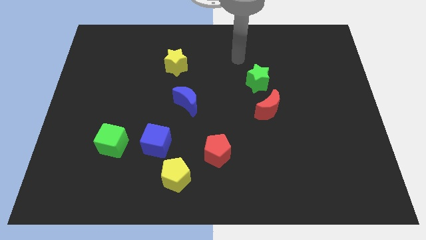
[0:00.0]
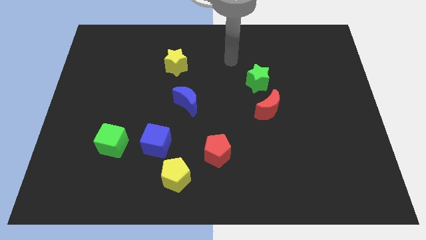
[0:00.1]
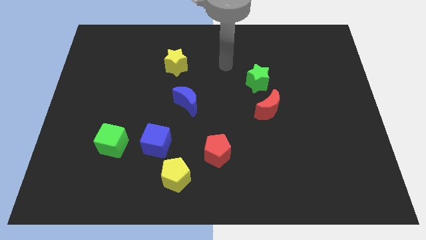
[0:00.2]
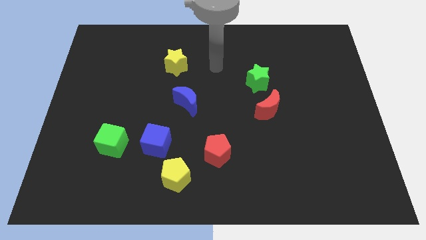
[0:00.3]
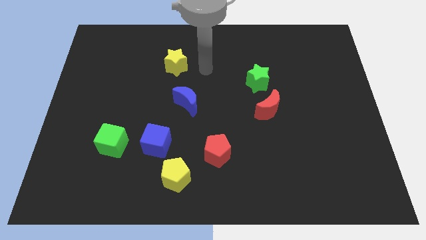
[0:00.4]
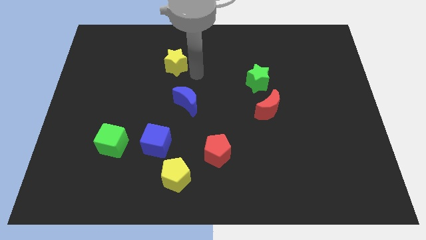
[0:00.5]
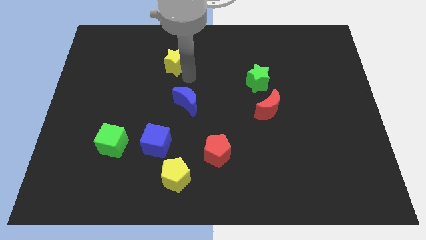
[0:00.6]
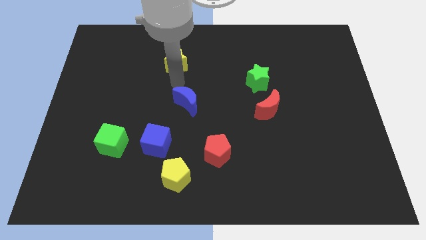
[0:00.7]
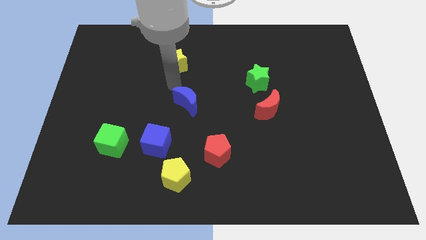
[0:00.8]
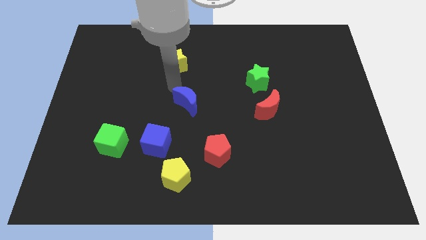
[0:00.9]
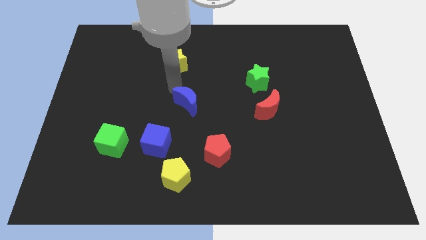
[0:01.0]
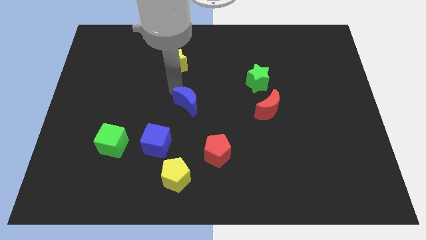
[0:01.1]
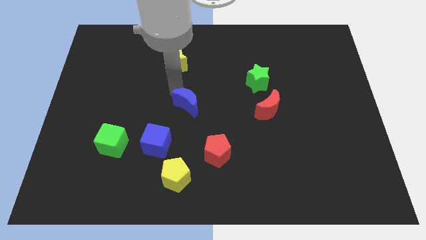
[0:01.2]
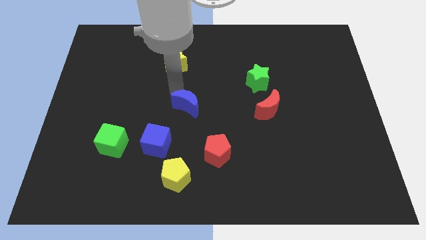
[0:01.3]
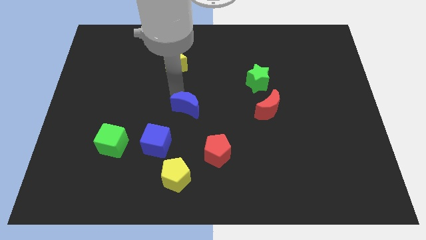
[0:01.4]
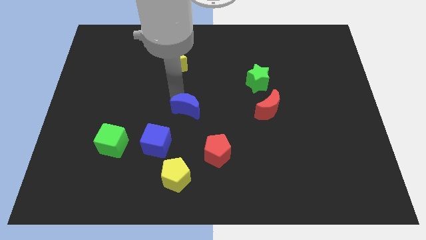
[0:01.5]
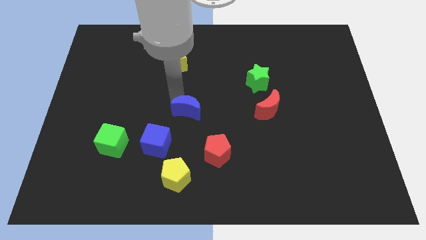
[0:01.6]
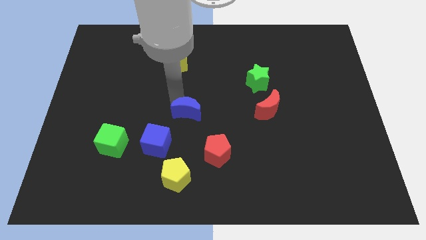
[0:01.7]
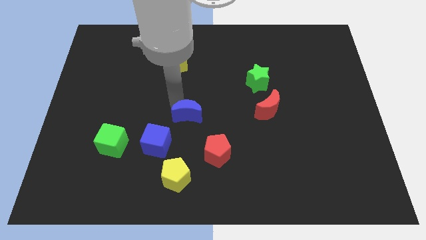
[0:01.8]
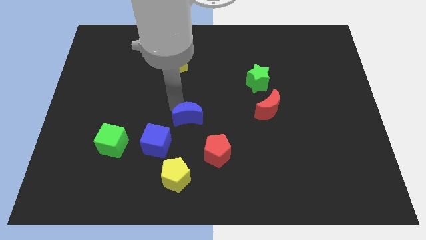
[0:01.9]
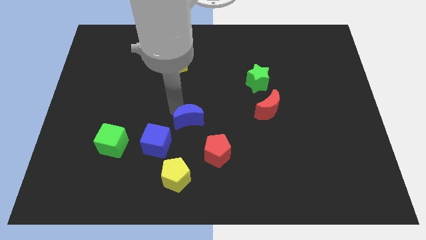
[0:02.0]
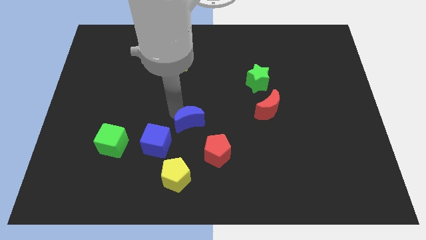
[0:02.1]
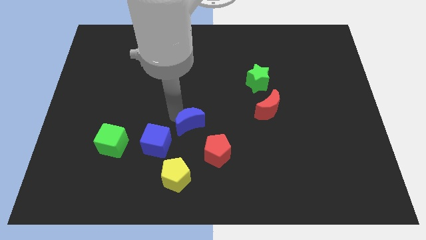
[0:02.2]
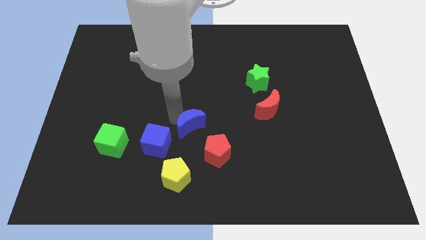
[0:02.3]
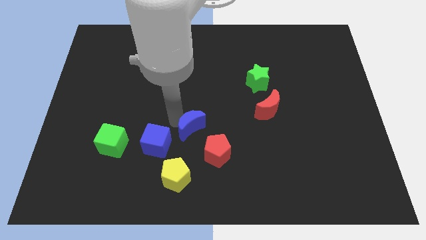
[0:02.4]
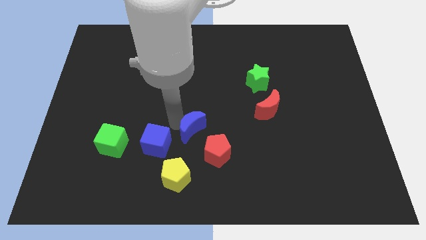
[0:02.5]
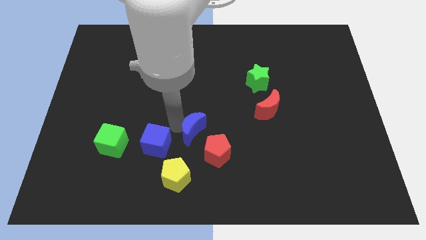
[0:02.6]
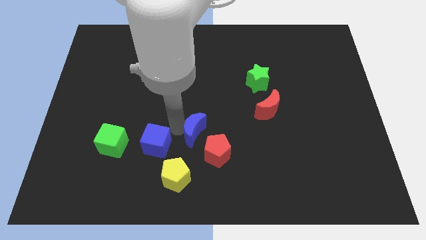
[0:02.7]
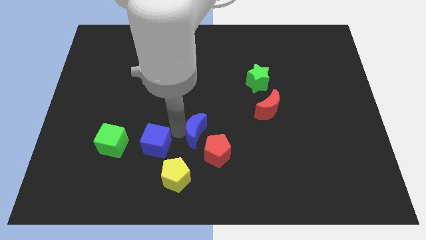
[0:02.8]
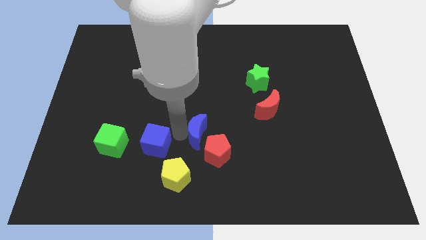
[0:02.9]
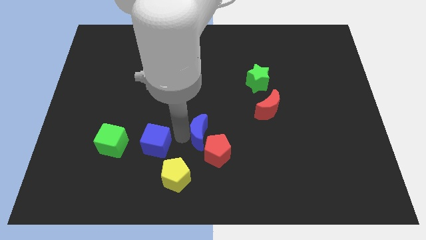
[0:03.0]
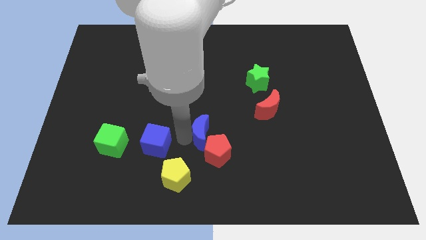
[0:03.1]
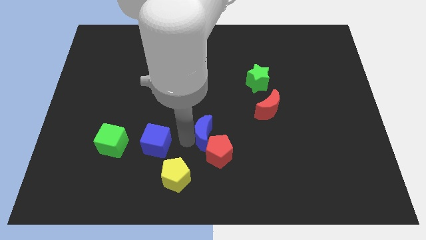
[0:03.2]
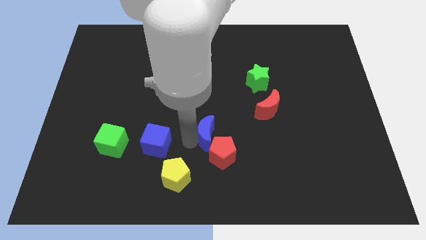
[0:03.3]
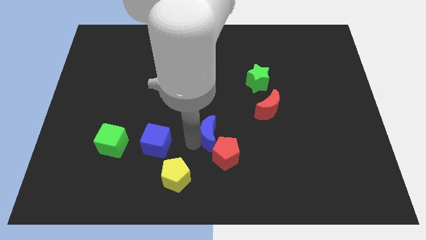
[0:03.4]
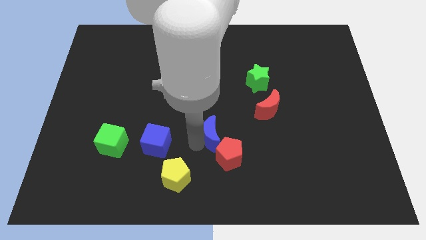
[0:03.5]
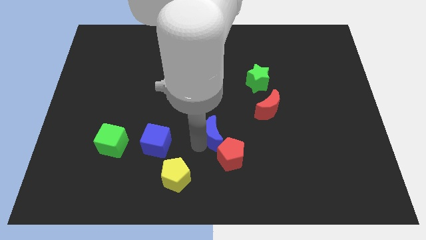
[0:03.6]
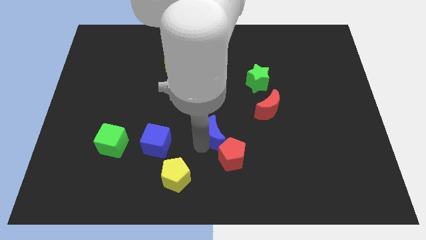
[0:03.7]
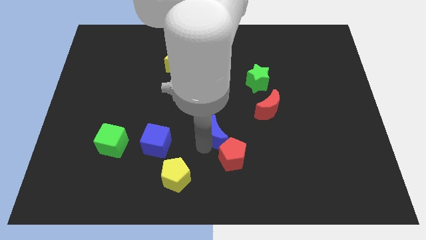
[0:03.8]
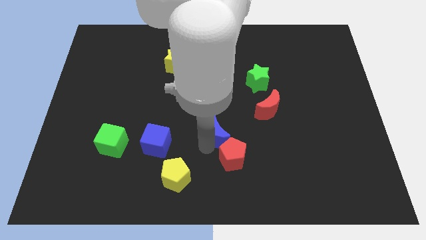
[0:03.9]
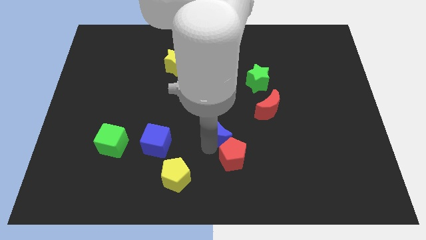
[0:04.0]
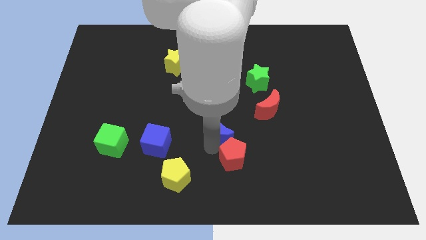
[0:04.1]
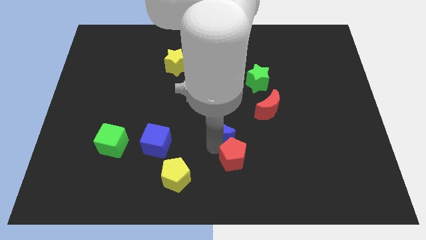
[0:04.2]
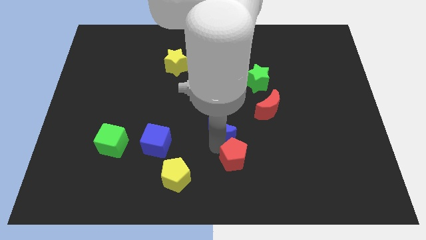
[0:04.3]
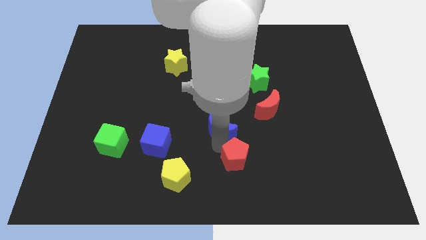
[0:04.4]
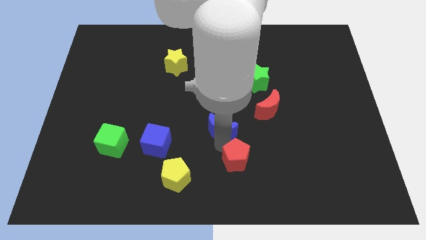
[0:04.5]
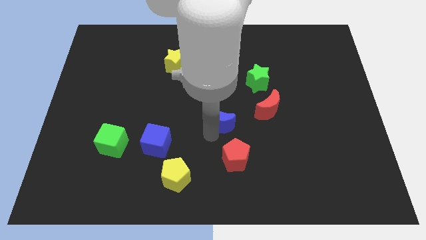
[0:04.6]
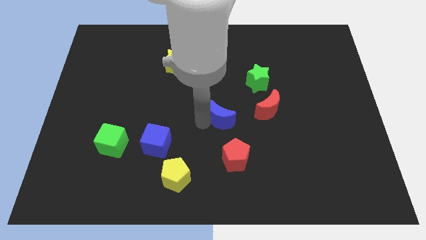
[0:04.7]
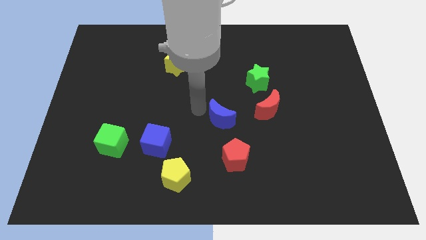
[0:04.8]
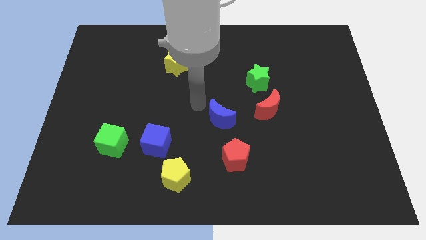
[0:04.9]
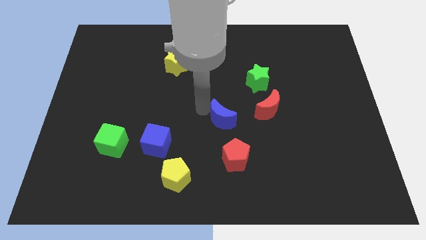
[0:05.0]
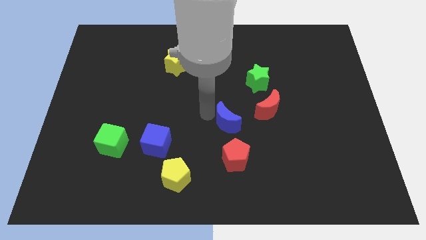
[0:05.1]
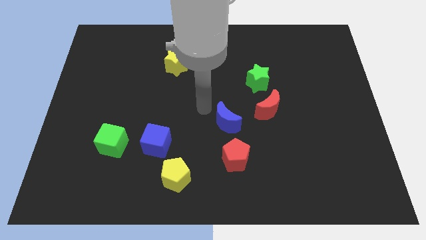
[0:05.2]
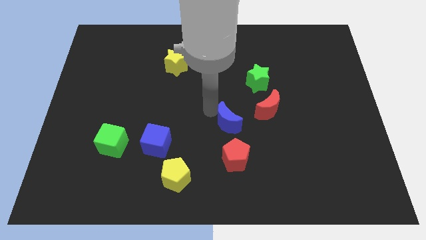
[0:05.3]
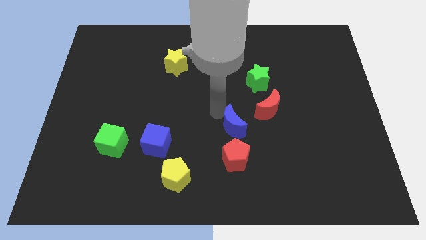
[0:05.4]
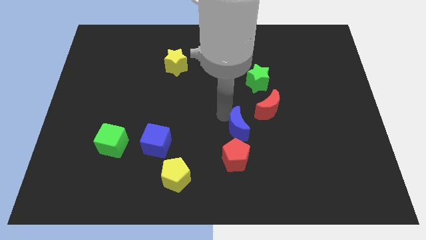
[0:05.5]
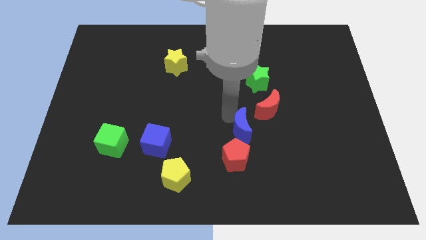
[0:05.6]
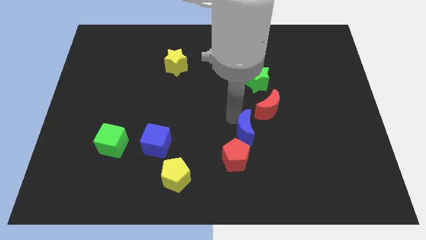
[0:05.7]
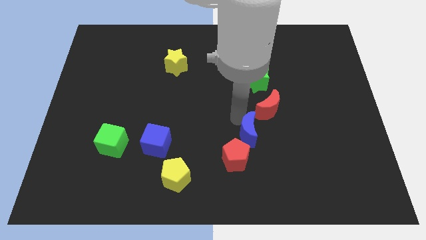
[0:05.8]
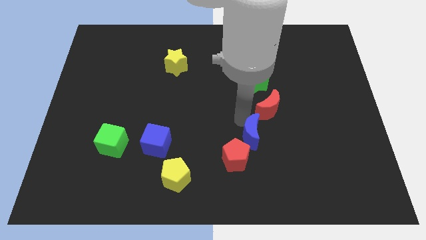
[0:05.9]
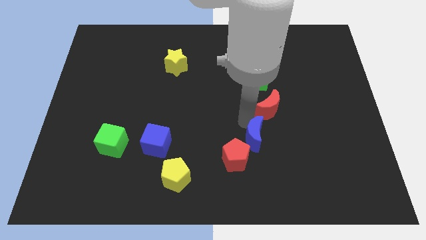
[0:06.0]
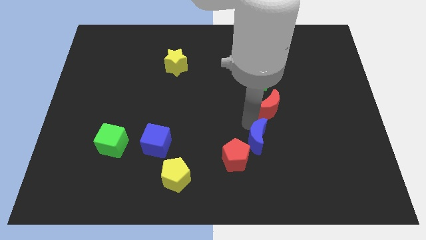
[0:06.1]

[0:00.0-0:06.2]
put the blue moon to the right of the red pentagon

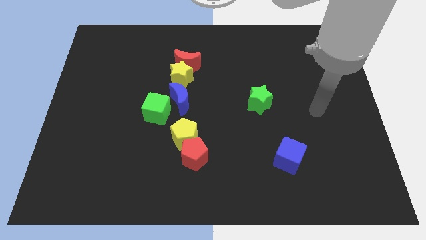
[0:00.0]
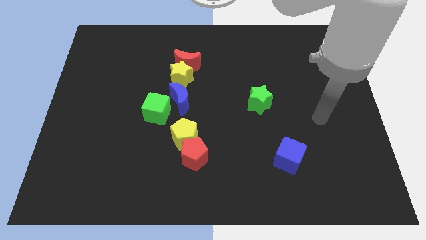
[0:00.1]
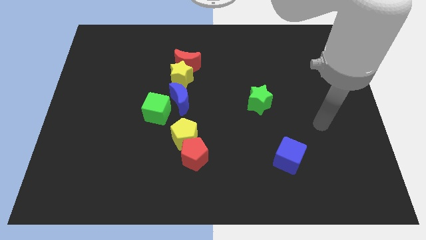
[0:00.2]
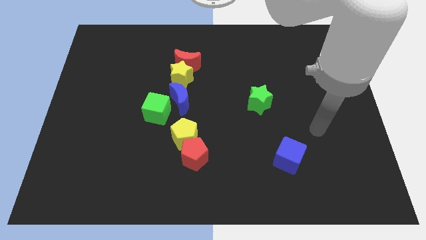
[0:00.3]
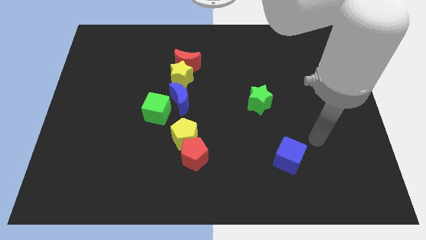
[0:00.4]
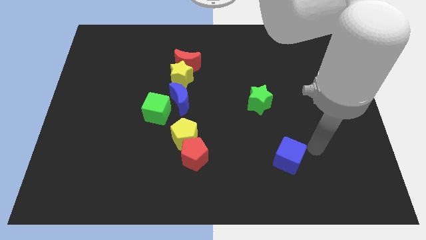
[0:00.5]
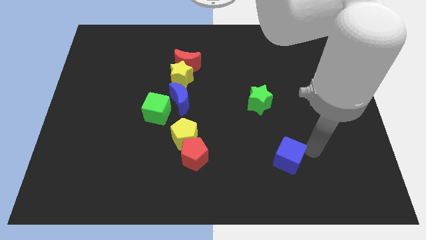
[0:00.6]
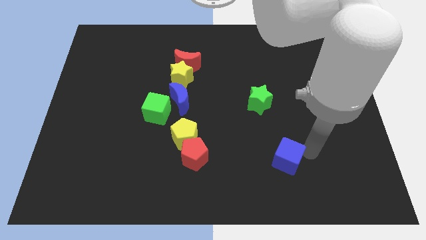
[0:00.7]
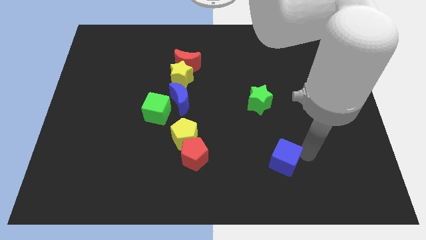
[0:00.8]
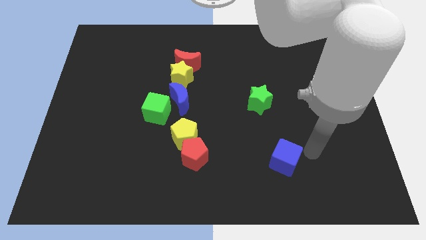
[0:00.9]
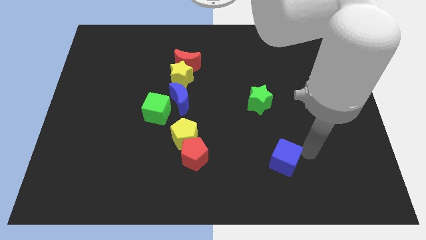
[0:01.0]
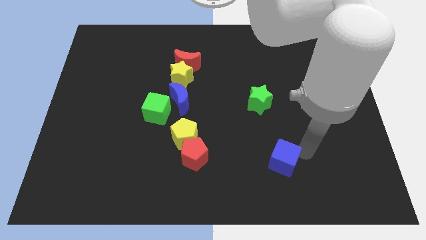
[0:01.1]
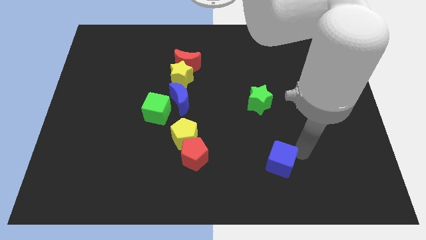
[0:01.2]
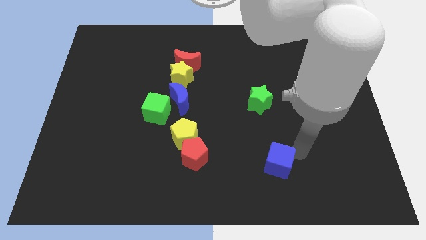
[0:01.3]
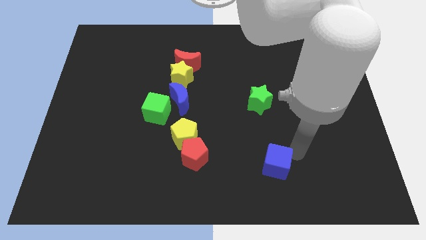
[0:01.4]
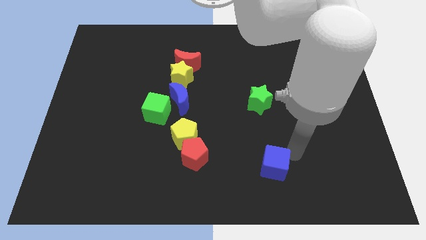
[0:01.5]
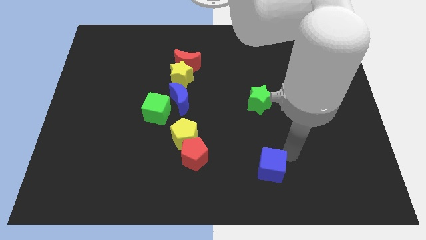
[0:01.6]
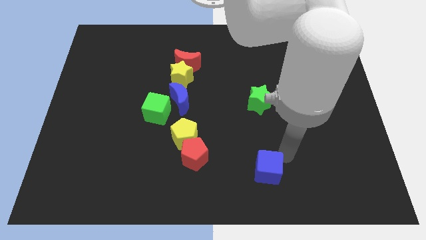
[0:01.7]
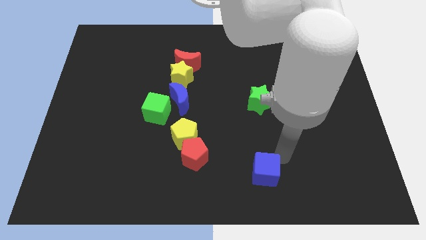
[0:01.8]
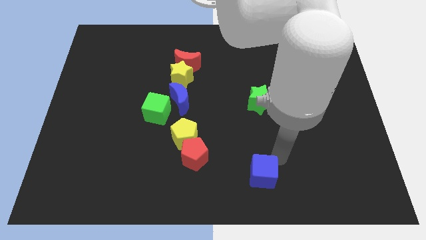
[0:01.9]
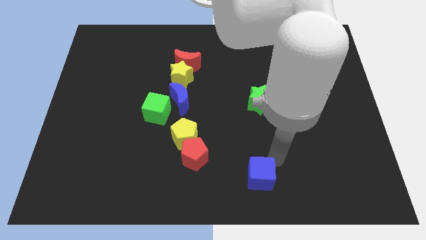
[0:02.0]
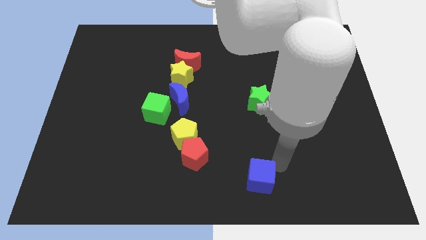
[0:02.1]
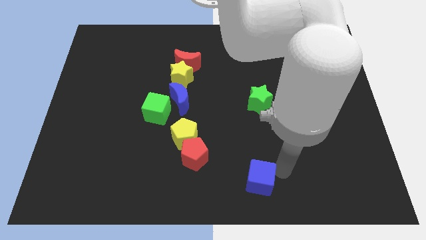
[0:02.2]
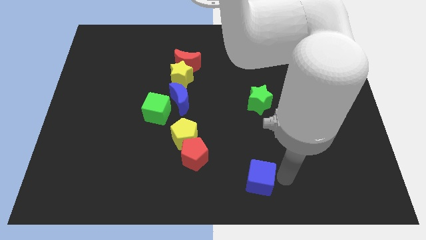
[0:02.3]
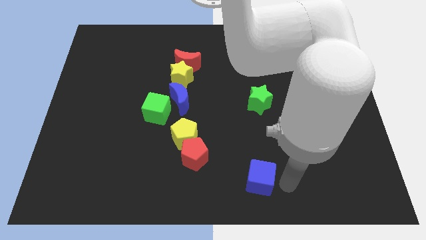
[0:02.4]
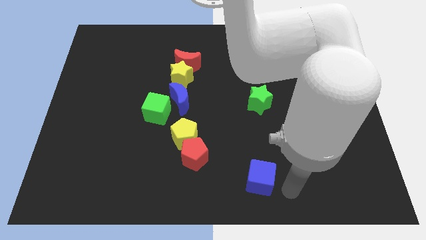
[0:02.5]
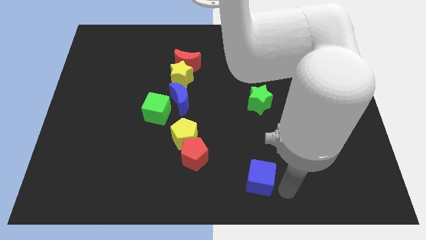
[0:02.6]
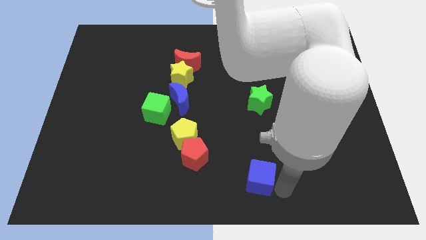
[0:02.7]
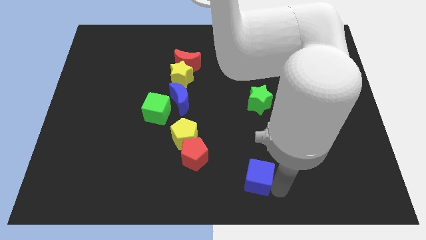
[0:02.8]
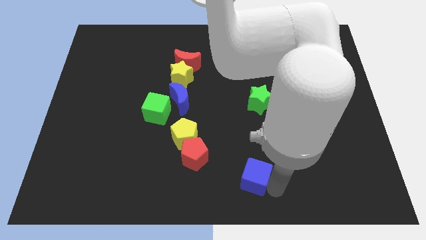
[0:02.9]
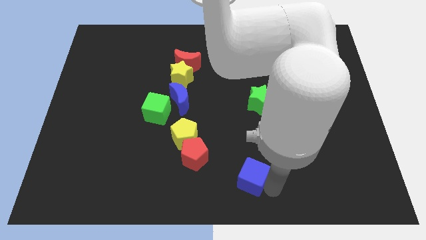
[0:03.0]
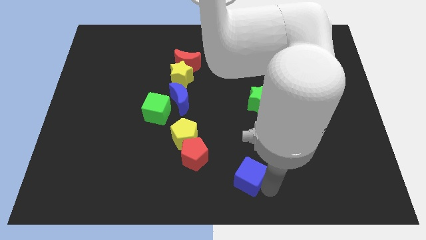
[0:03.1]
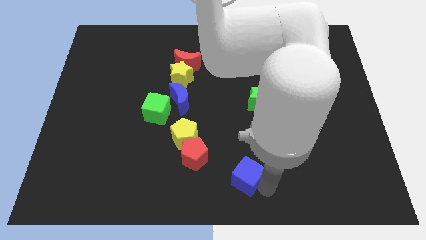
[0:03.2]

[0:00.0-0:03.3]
slide the blue cube diagonally down and to the right of the red pentagon
